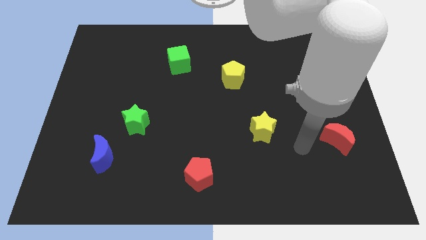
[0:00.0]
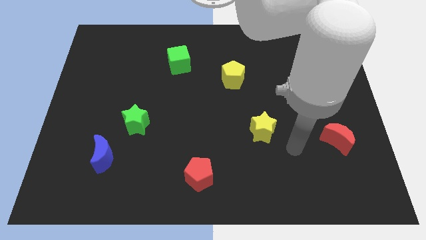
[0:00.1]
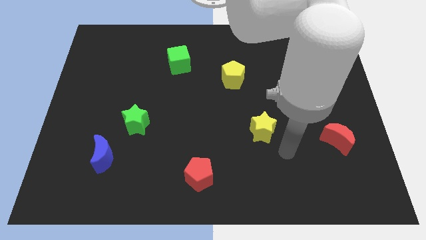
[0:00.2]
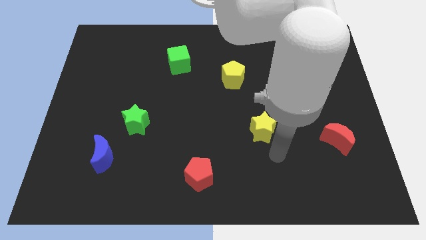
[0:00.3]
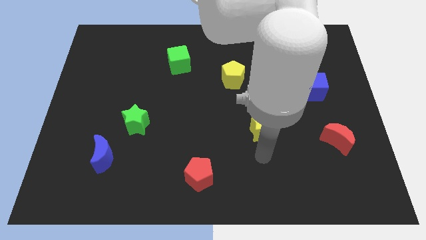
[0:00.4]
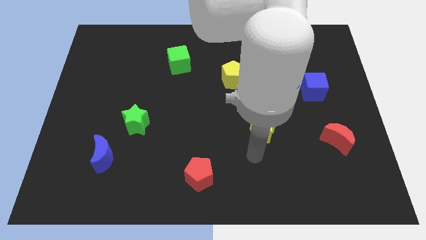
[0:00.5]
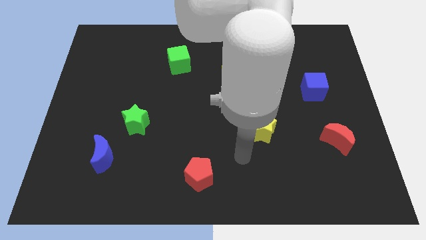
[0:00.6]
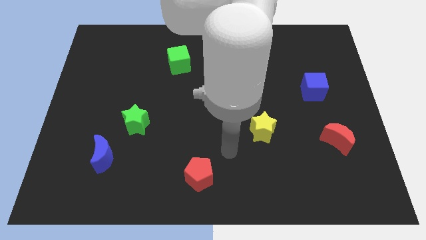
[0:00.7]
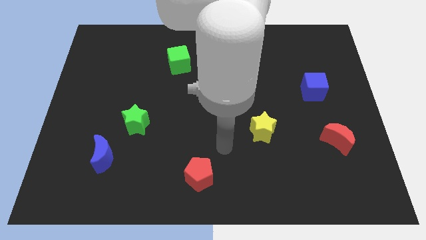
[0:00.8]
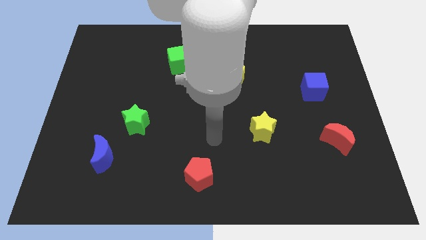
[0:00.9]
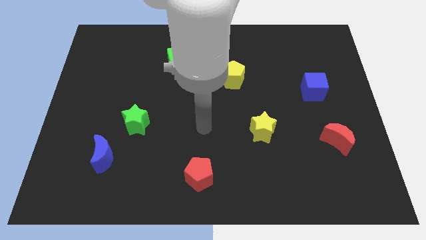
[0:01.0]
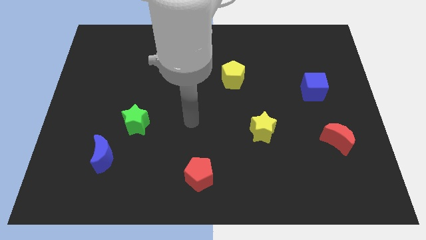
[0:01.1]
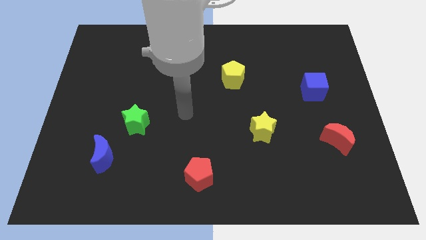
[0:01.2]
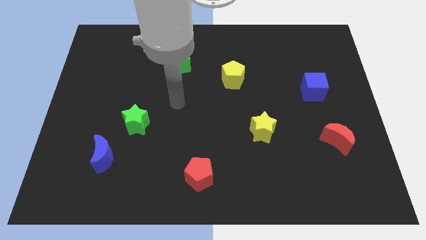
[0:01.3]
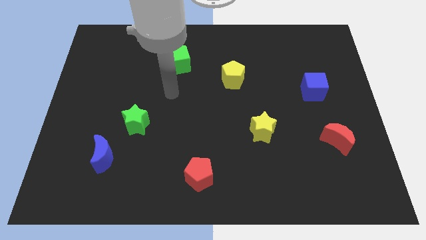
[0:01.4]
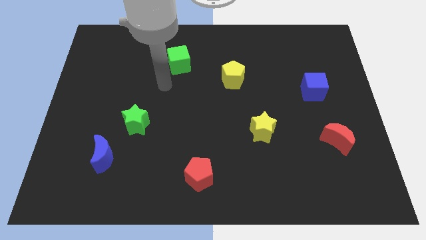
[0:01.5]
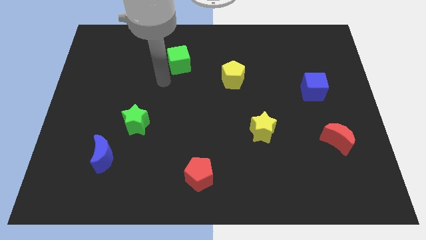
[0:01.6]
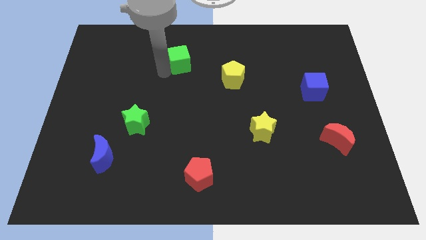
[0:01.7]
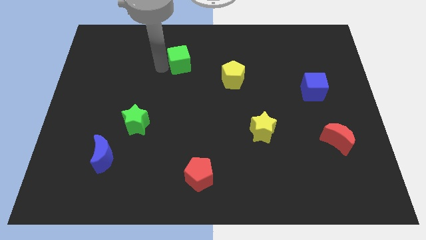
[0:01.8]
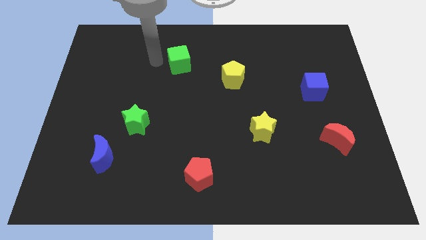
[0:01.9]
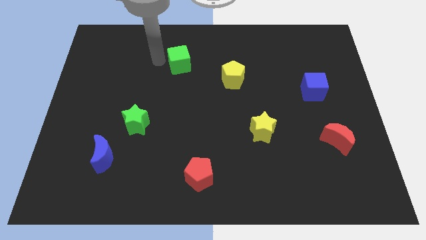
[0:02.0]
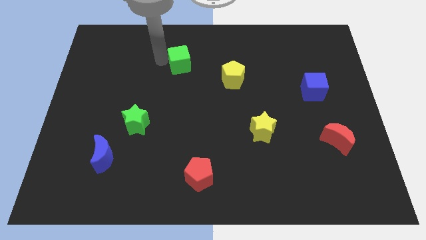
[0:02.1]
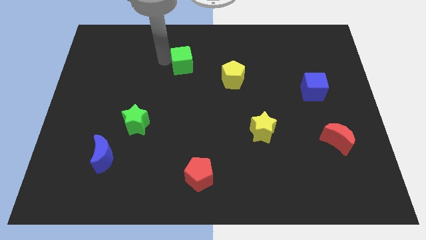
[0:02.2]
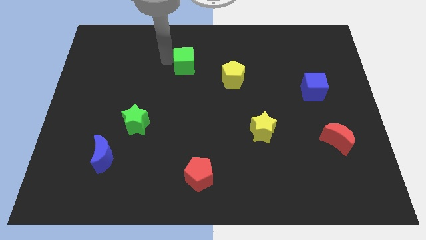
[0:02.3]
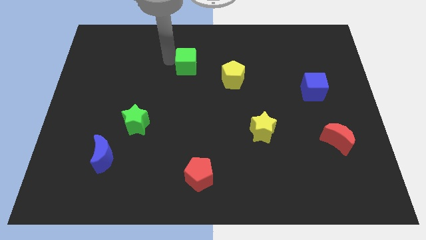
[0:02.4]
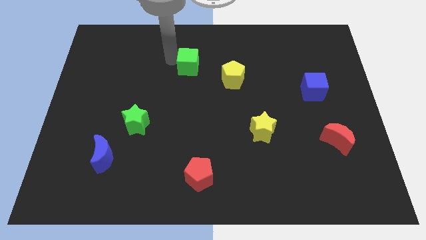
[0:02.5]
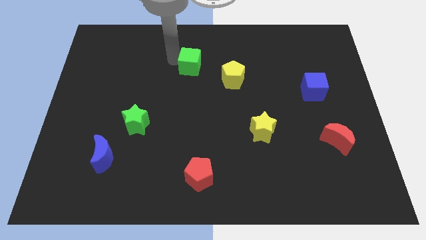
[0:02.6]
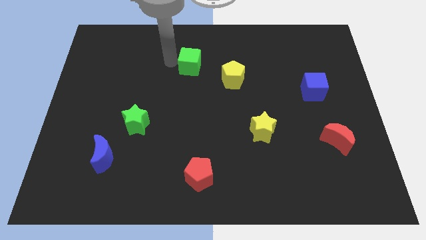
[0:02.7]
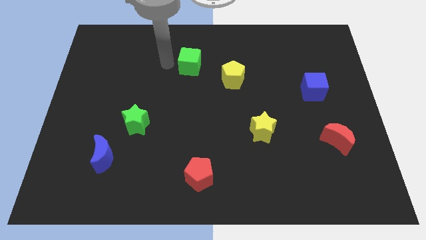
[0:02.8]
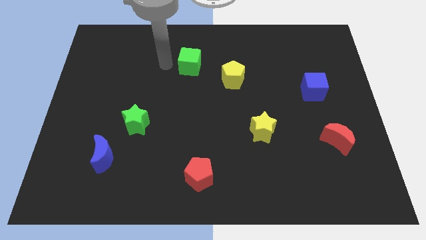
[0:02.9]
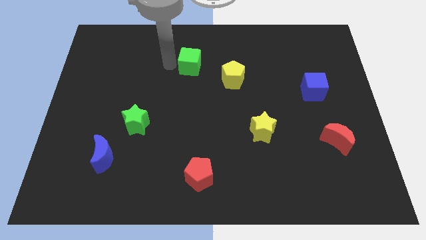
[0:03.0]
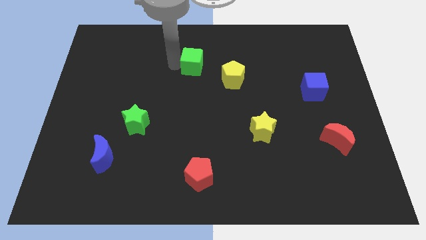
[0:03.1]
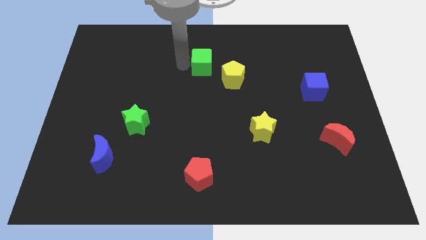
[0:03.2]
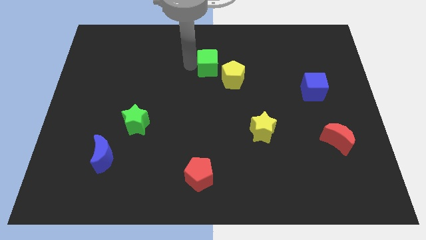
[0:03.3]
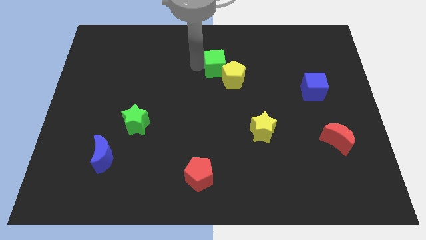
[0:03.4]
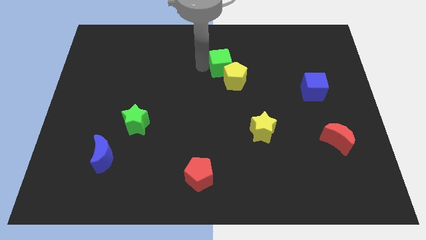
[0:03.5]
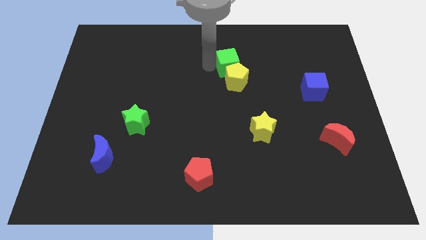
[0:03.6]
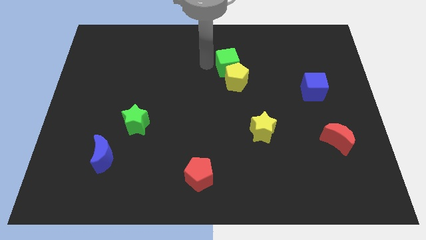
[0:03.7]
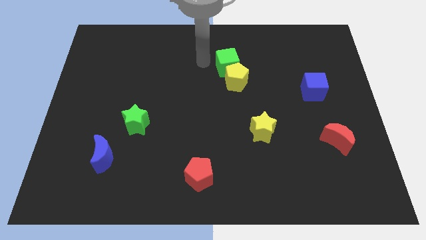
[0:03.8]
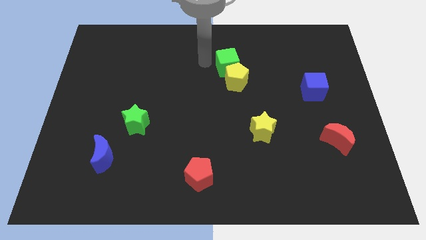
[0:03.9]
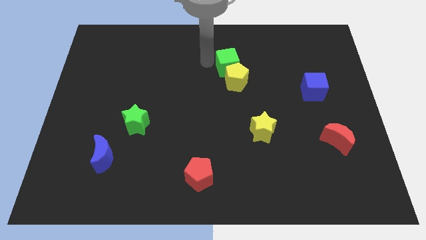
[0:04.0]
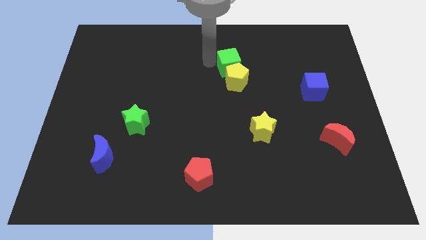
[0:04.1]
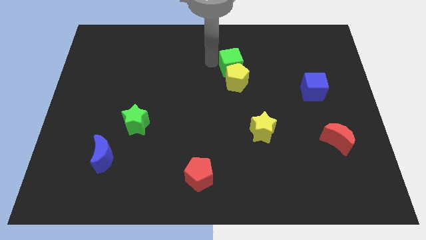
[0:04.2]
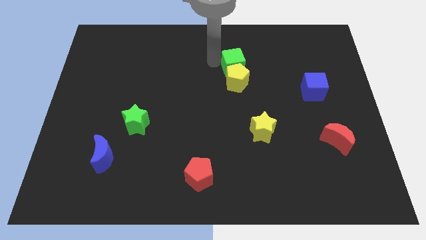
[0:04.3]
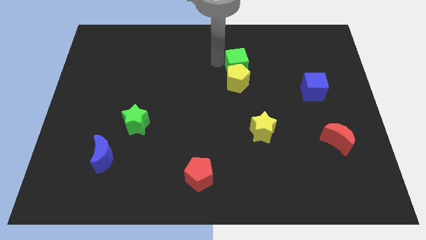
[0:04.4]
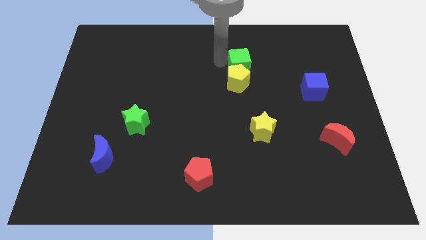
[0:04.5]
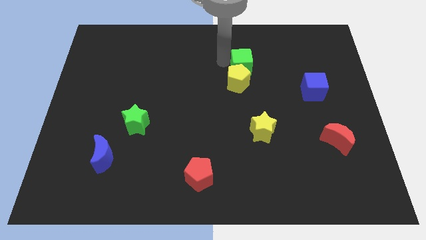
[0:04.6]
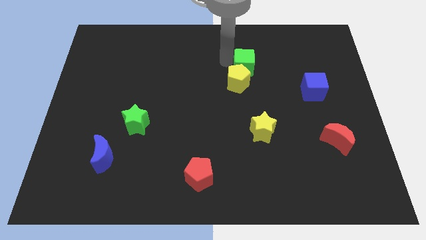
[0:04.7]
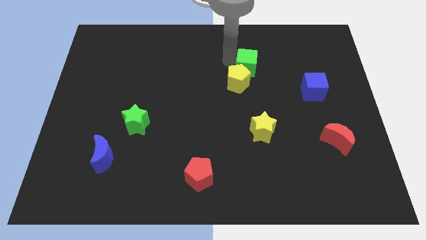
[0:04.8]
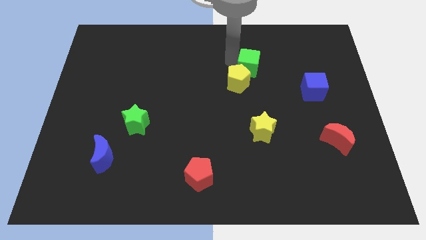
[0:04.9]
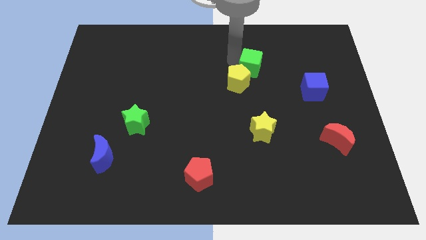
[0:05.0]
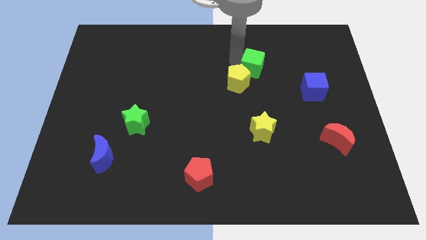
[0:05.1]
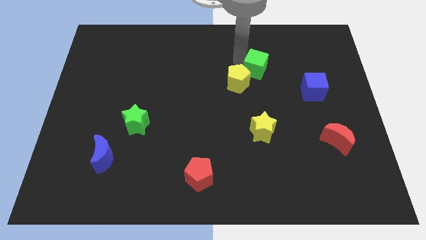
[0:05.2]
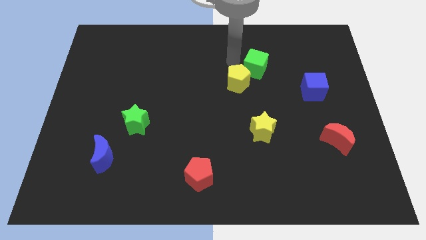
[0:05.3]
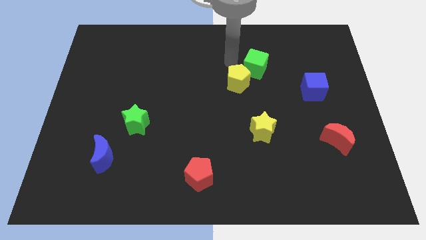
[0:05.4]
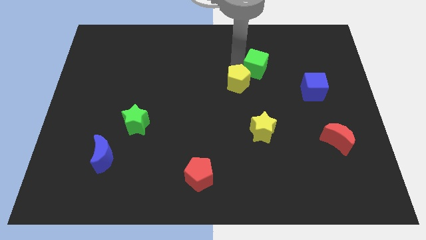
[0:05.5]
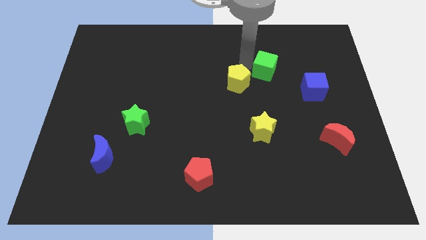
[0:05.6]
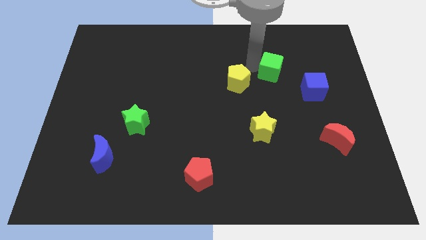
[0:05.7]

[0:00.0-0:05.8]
move the green cube diagonally up and to the left of the blue cube

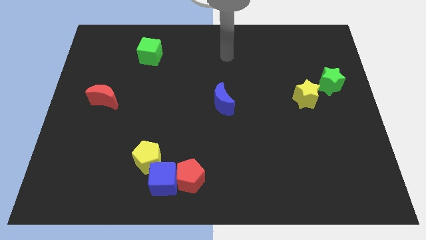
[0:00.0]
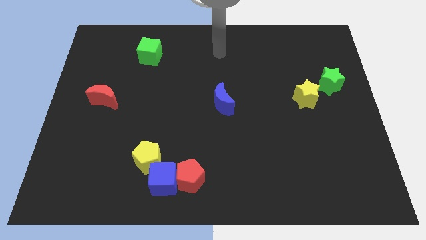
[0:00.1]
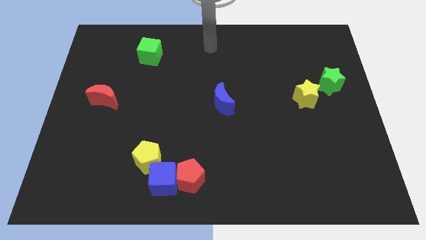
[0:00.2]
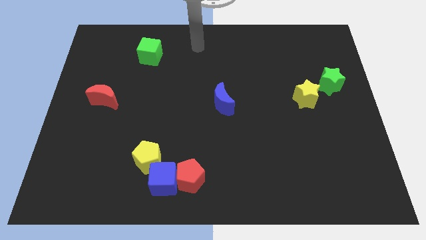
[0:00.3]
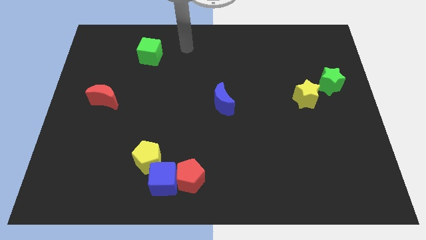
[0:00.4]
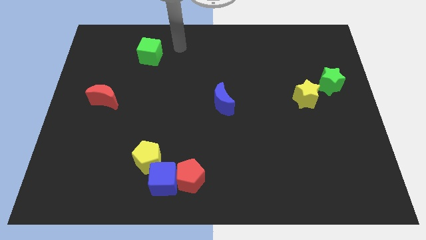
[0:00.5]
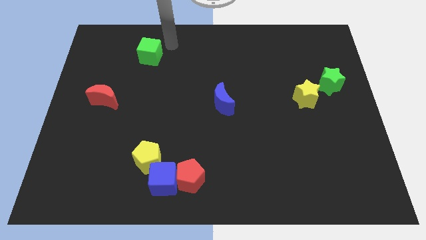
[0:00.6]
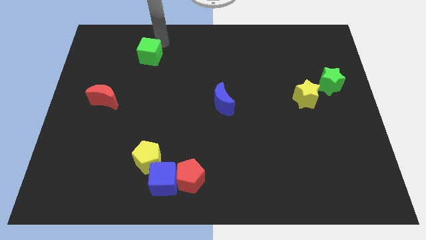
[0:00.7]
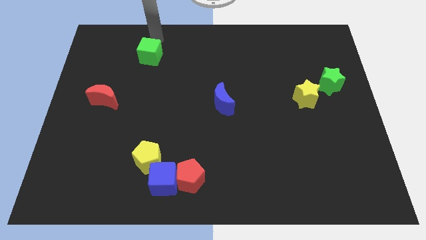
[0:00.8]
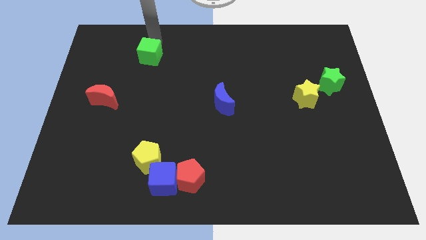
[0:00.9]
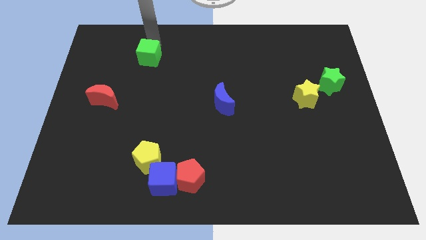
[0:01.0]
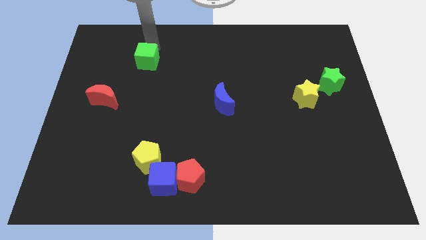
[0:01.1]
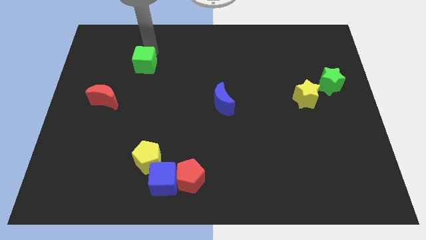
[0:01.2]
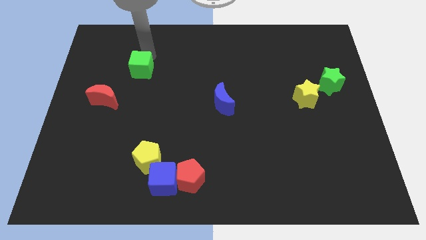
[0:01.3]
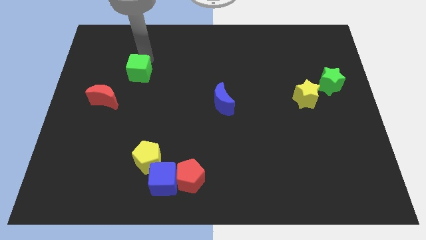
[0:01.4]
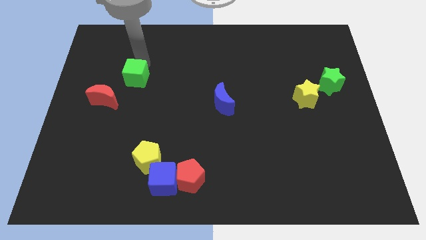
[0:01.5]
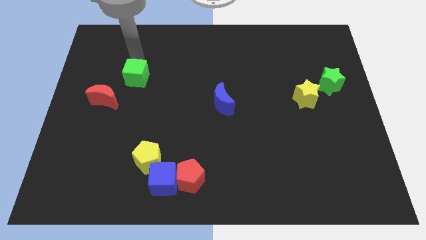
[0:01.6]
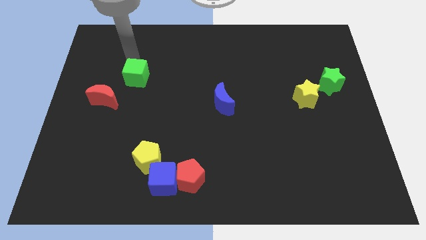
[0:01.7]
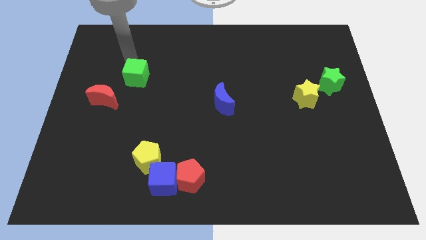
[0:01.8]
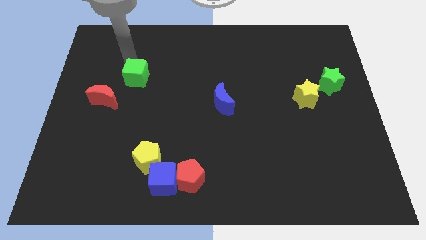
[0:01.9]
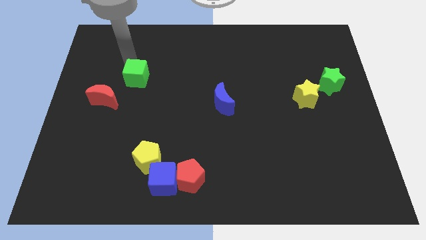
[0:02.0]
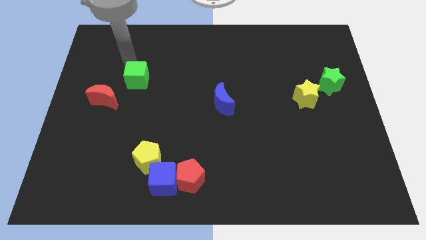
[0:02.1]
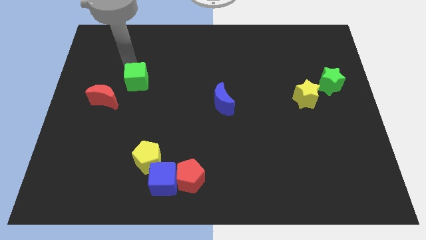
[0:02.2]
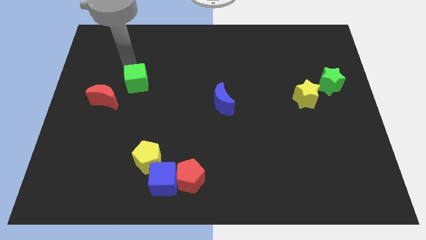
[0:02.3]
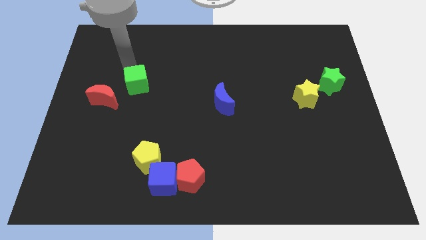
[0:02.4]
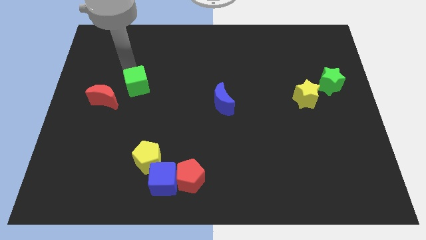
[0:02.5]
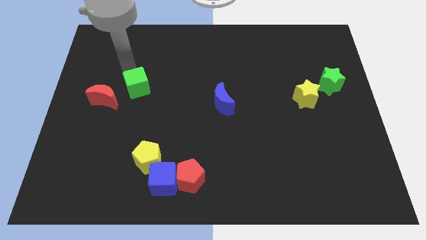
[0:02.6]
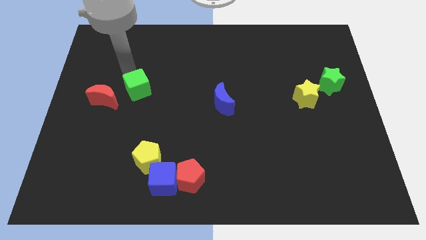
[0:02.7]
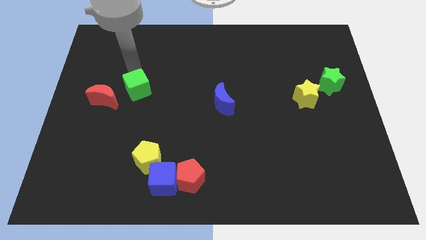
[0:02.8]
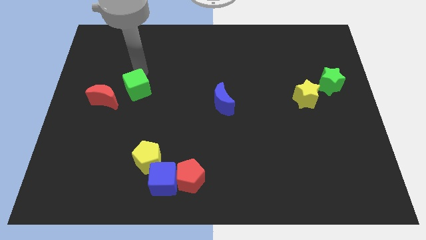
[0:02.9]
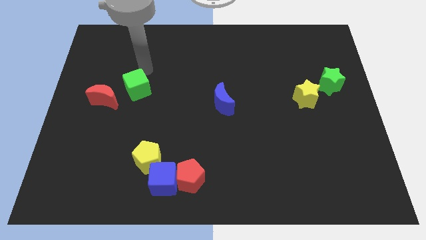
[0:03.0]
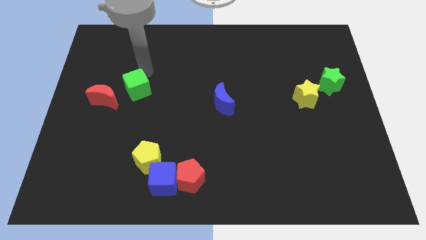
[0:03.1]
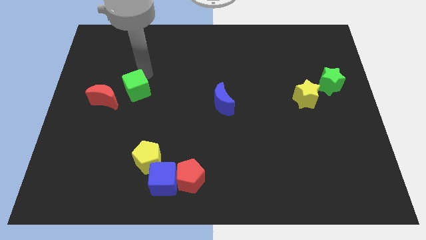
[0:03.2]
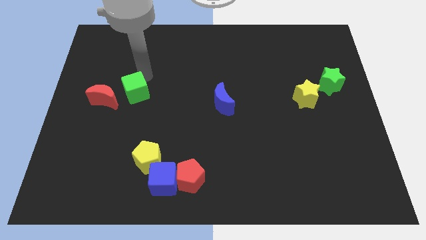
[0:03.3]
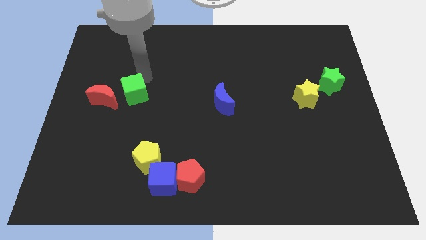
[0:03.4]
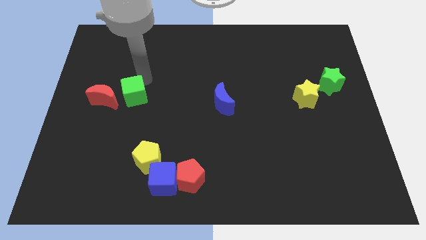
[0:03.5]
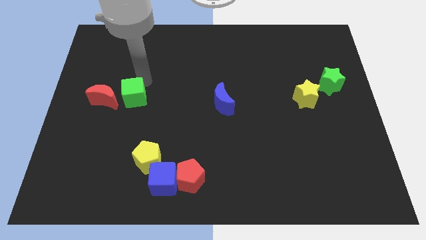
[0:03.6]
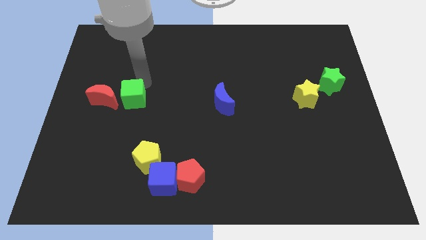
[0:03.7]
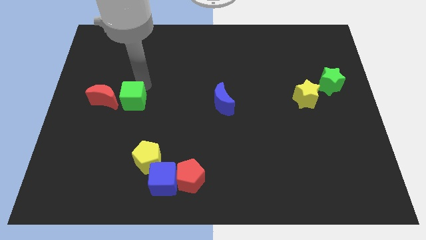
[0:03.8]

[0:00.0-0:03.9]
move the green cube to the bottom right side of the red moon
